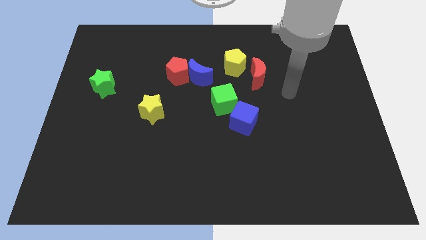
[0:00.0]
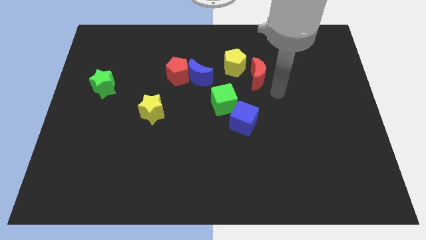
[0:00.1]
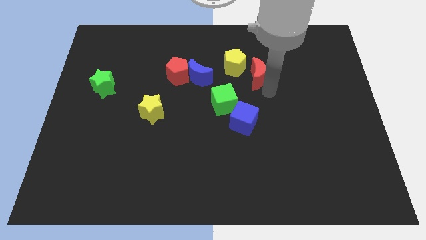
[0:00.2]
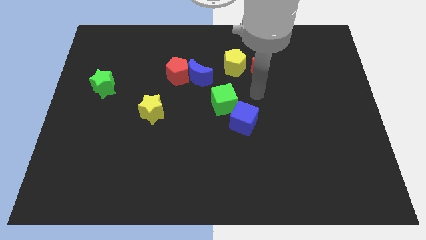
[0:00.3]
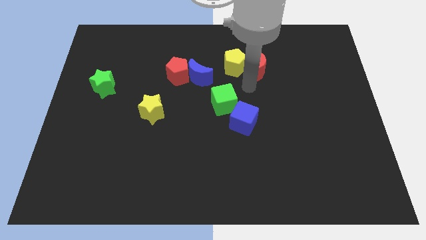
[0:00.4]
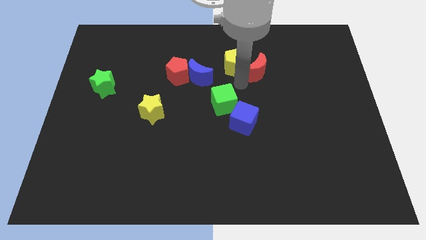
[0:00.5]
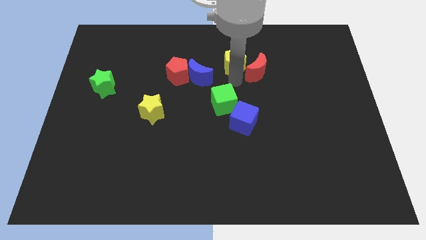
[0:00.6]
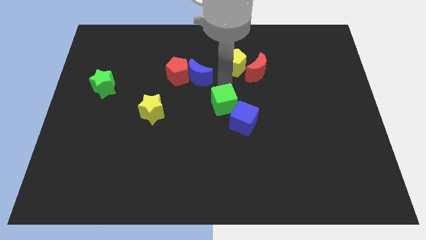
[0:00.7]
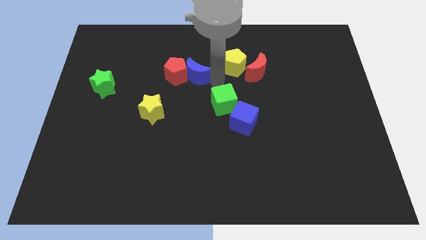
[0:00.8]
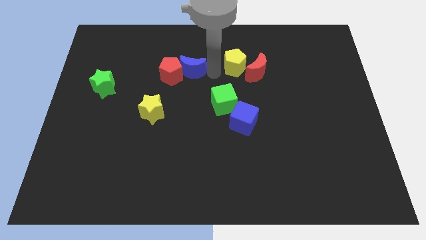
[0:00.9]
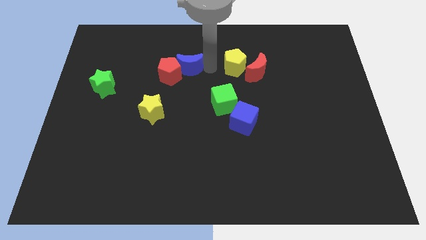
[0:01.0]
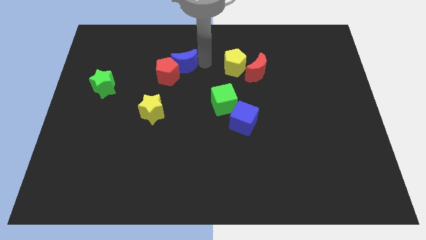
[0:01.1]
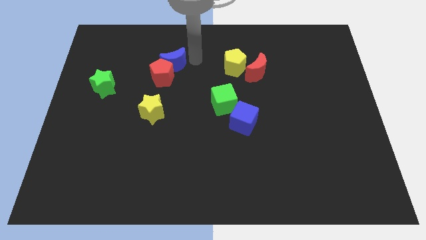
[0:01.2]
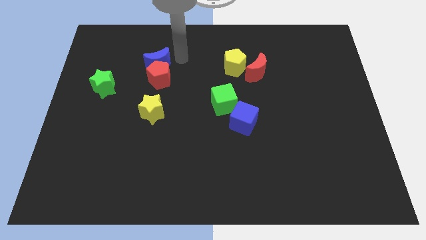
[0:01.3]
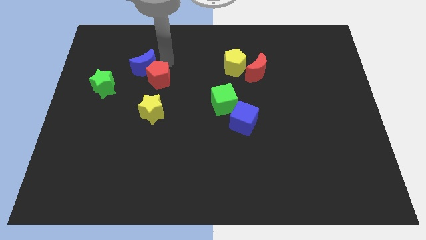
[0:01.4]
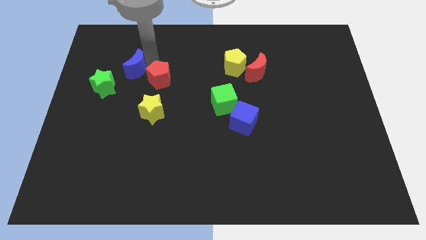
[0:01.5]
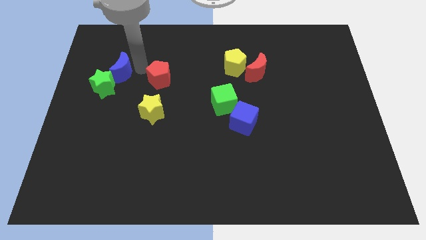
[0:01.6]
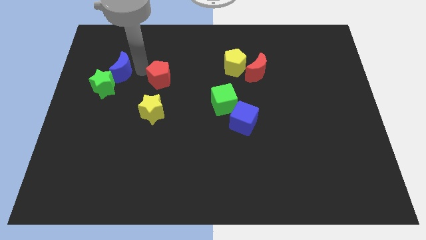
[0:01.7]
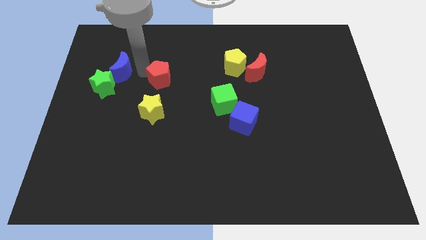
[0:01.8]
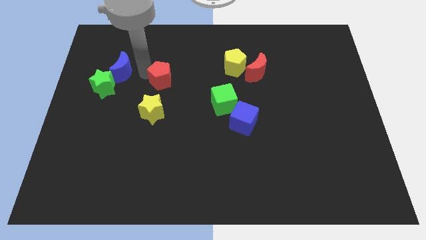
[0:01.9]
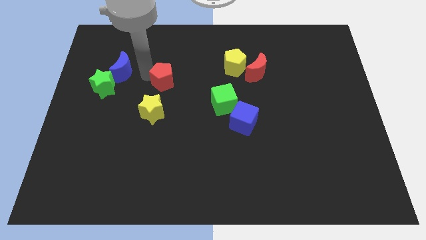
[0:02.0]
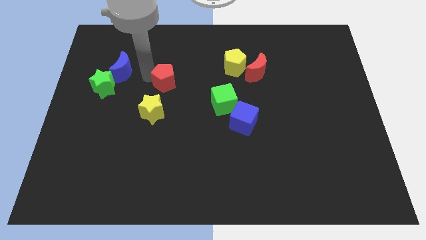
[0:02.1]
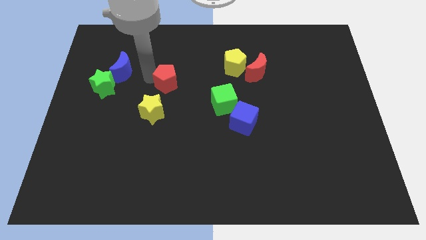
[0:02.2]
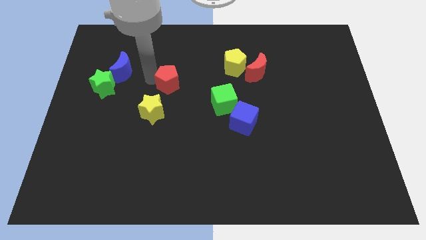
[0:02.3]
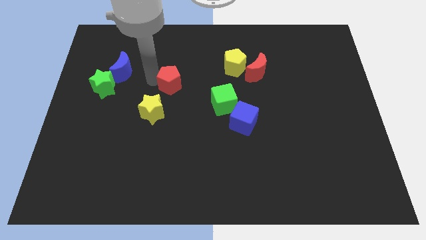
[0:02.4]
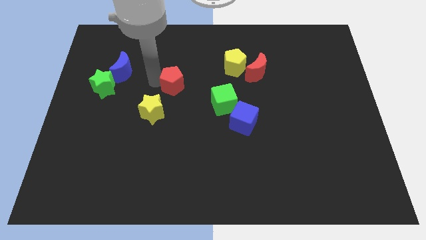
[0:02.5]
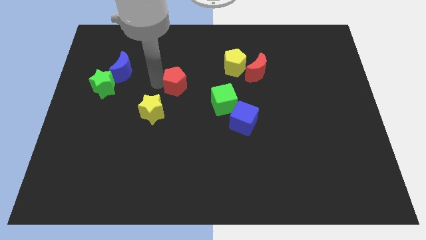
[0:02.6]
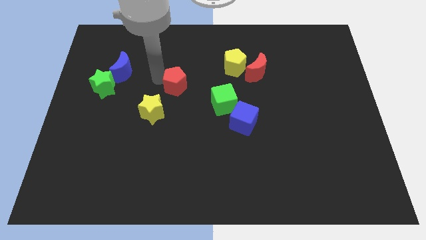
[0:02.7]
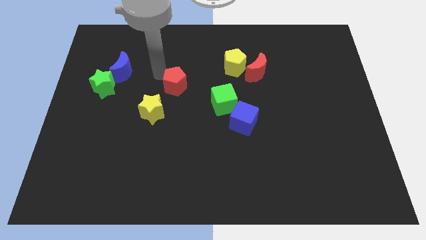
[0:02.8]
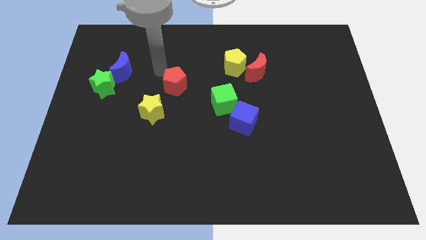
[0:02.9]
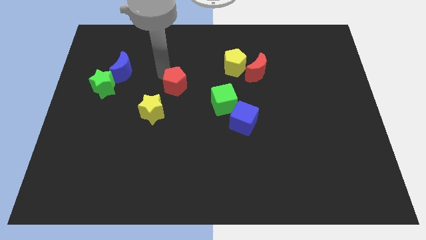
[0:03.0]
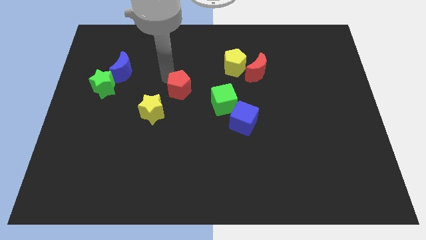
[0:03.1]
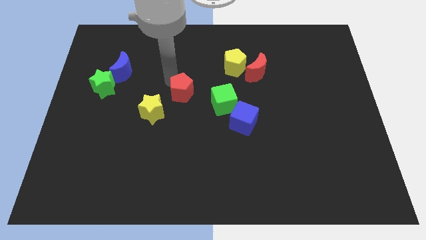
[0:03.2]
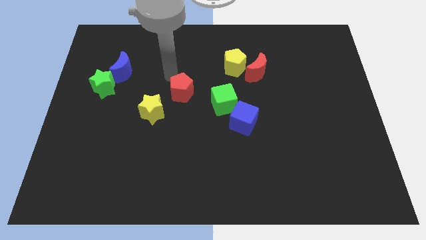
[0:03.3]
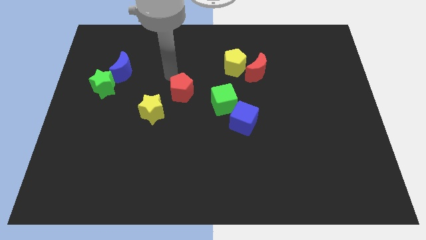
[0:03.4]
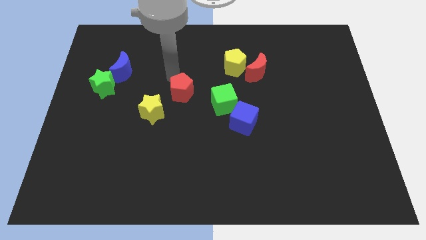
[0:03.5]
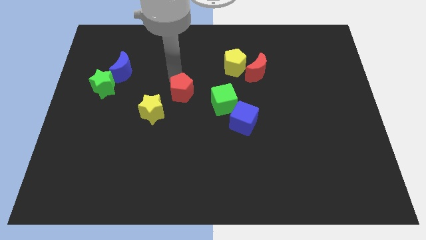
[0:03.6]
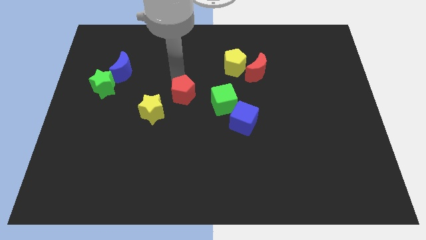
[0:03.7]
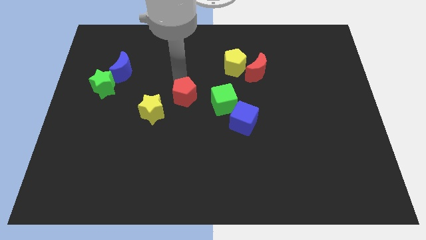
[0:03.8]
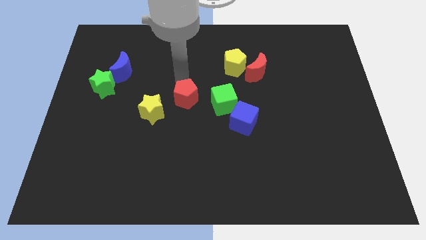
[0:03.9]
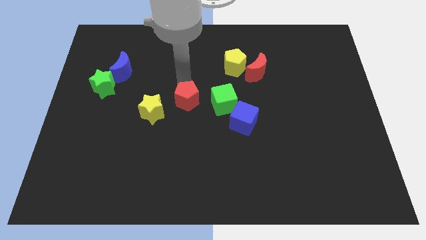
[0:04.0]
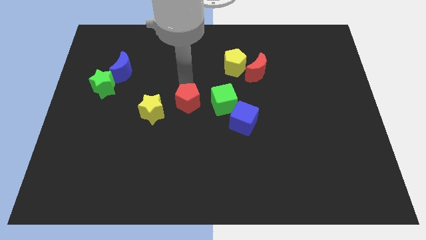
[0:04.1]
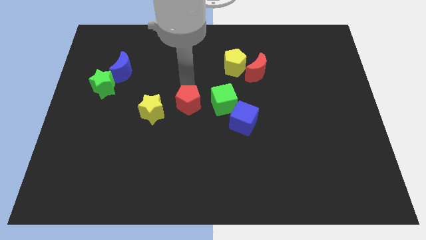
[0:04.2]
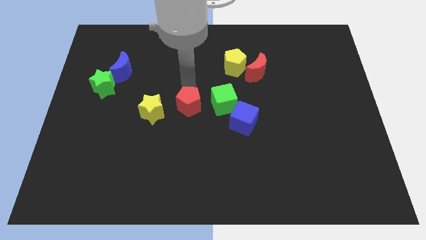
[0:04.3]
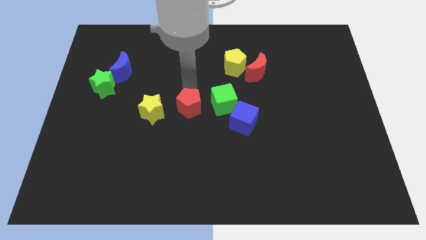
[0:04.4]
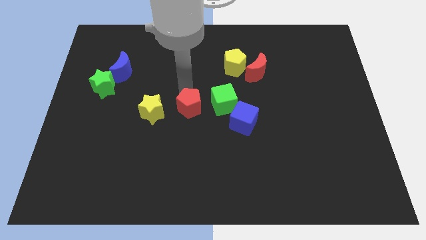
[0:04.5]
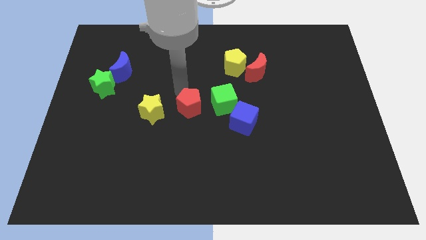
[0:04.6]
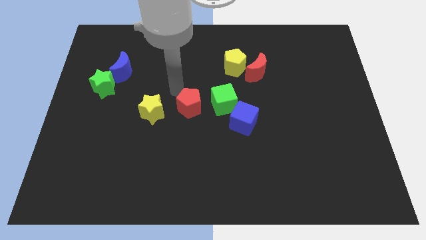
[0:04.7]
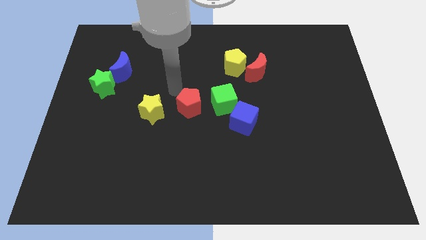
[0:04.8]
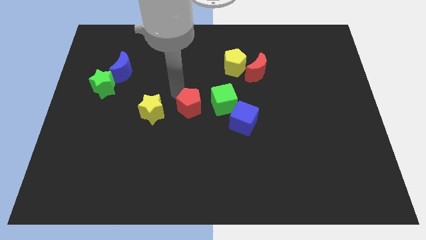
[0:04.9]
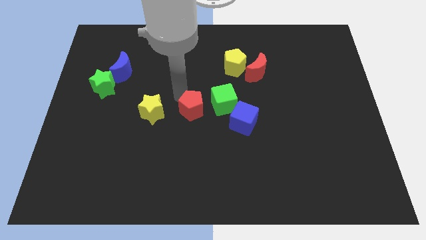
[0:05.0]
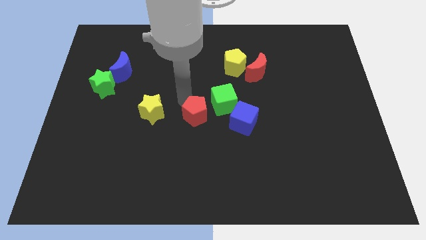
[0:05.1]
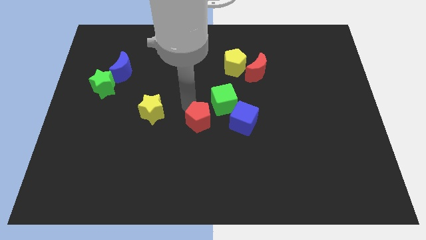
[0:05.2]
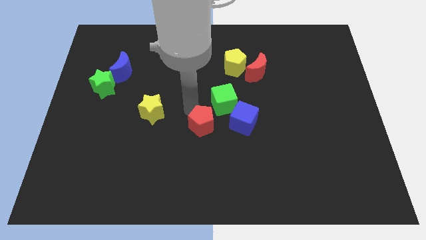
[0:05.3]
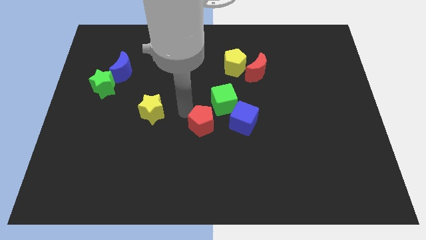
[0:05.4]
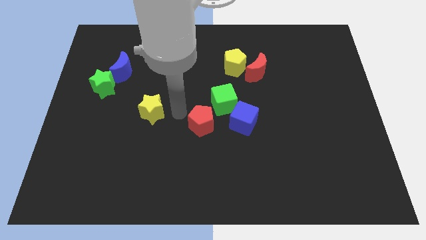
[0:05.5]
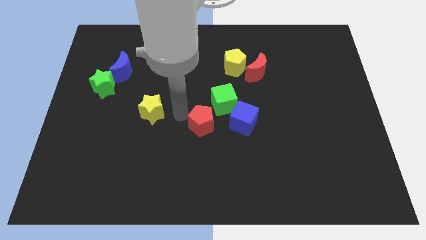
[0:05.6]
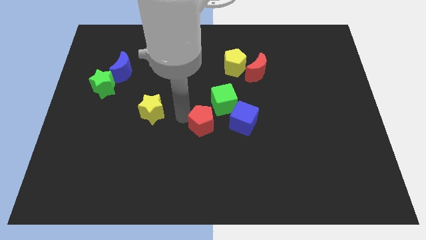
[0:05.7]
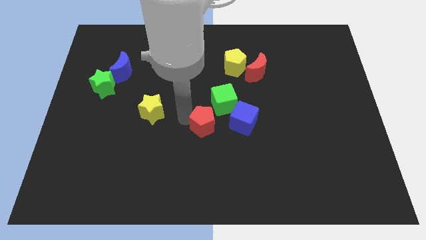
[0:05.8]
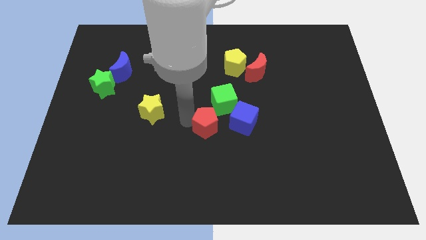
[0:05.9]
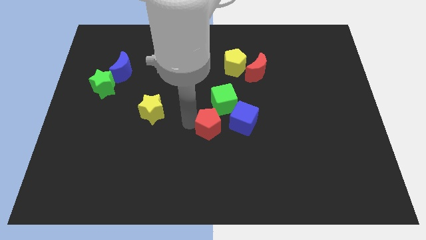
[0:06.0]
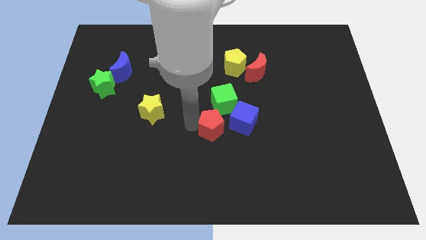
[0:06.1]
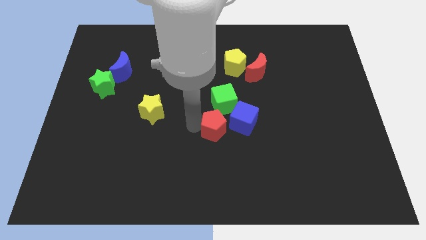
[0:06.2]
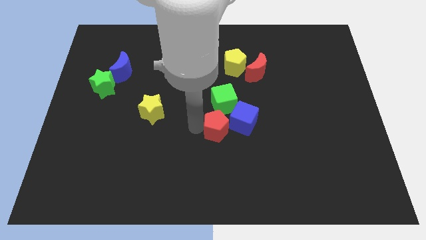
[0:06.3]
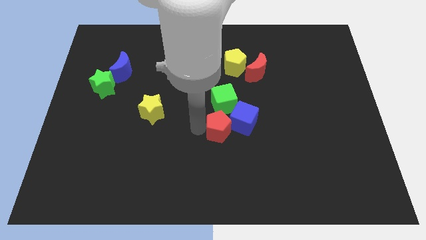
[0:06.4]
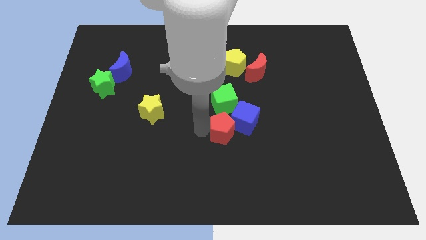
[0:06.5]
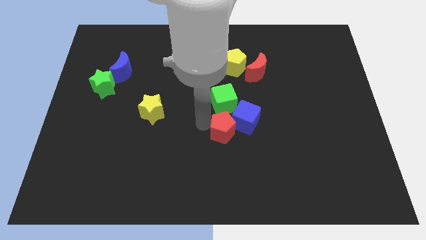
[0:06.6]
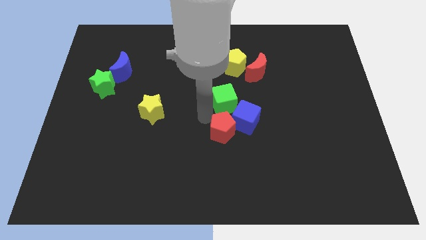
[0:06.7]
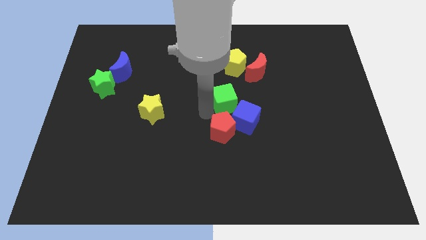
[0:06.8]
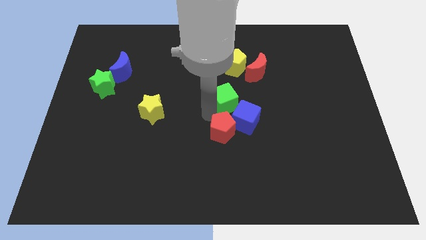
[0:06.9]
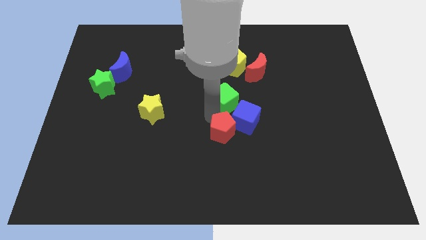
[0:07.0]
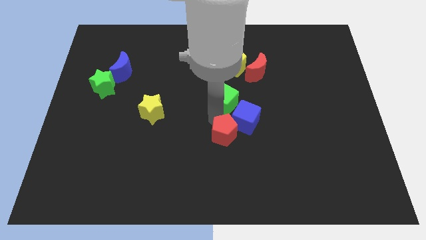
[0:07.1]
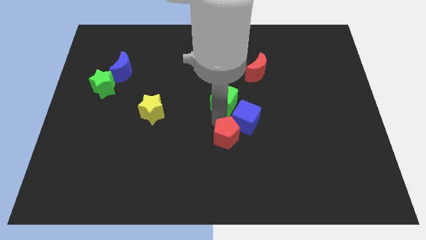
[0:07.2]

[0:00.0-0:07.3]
push the red pentagon below the blue cube
